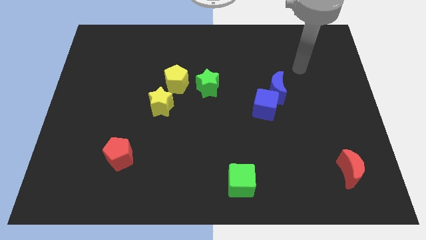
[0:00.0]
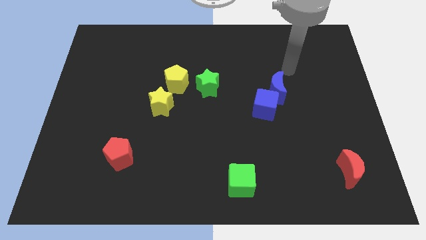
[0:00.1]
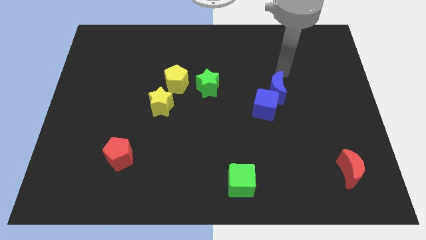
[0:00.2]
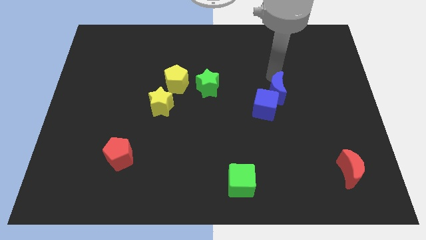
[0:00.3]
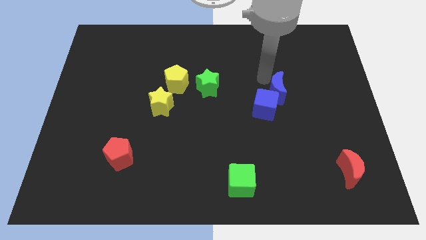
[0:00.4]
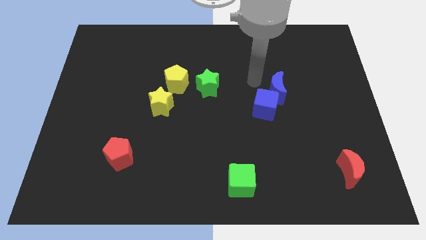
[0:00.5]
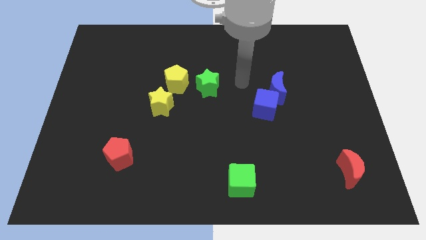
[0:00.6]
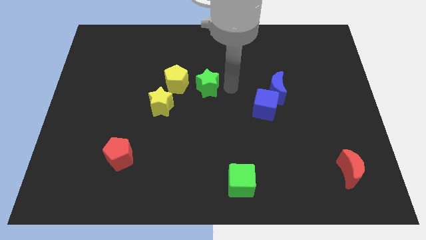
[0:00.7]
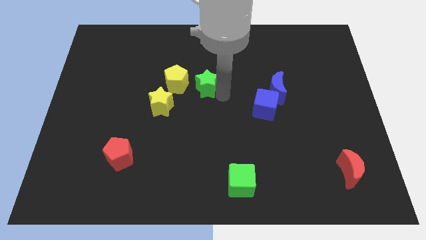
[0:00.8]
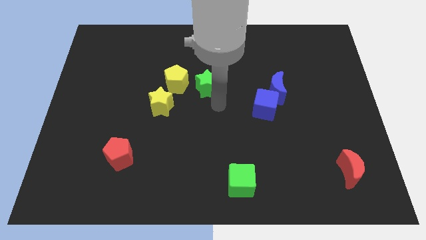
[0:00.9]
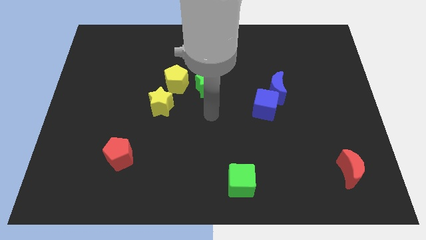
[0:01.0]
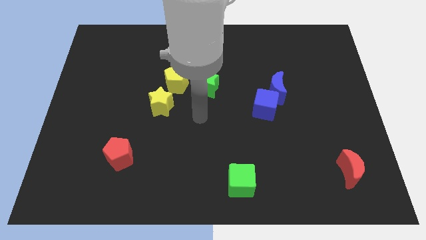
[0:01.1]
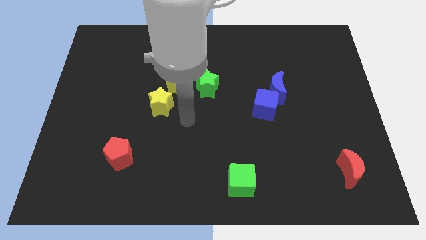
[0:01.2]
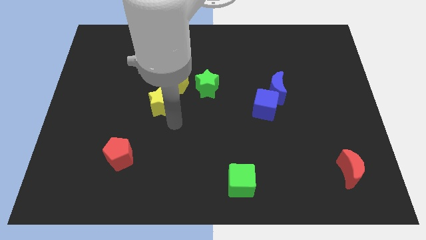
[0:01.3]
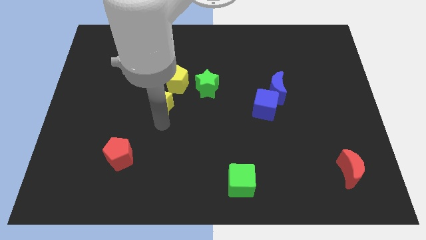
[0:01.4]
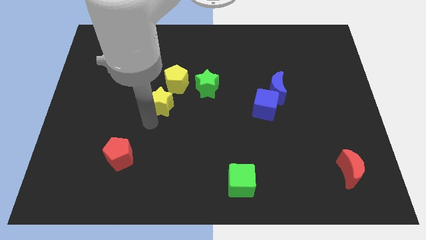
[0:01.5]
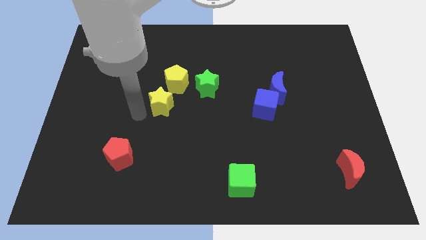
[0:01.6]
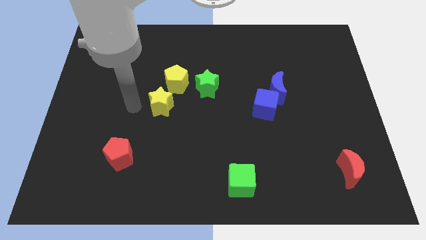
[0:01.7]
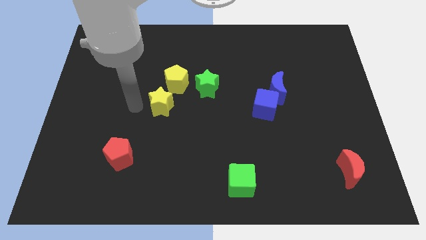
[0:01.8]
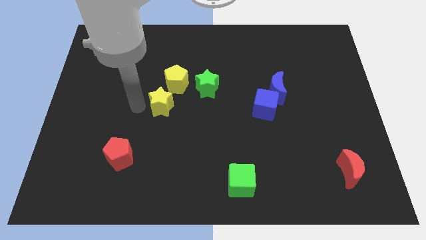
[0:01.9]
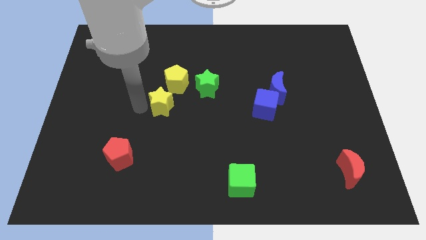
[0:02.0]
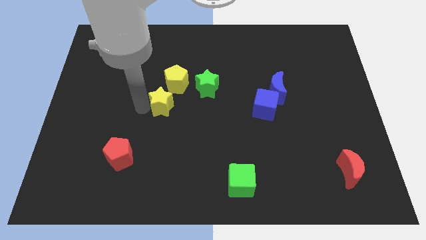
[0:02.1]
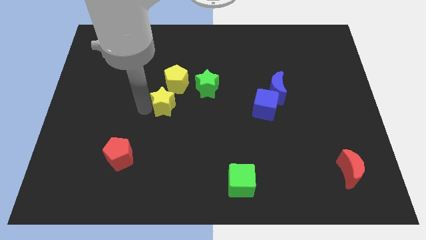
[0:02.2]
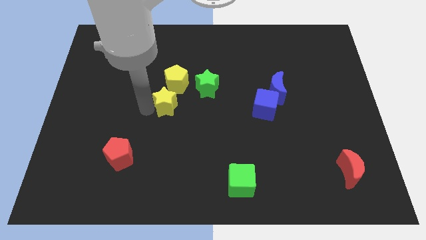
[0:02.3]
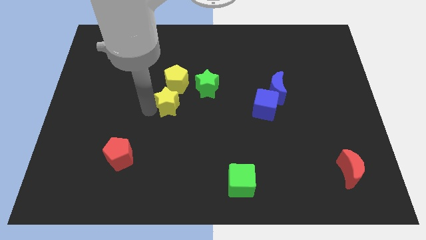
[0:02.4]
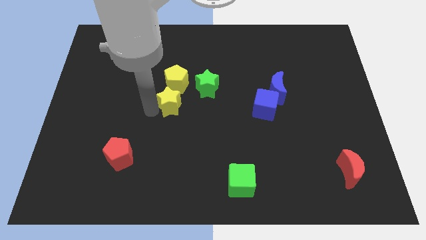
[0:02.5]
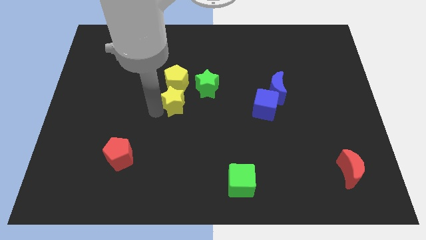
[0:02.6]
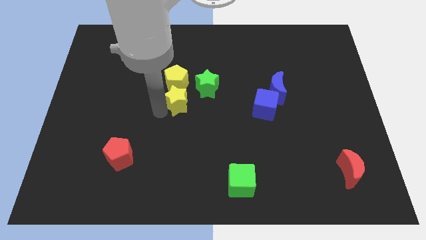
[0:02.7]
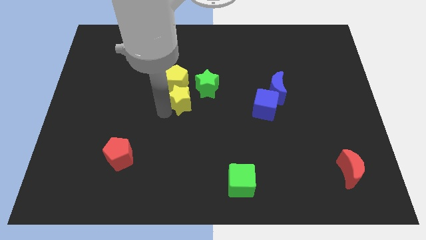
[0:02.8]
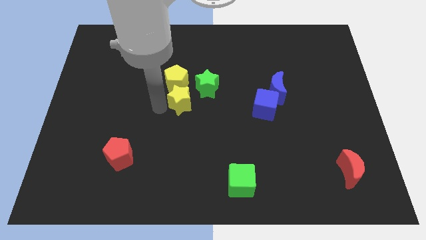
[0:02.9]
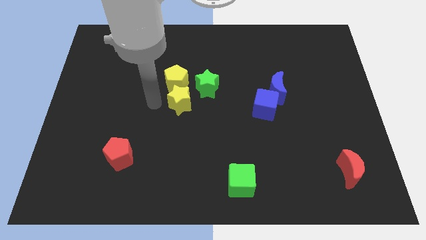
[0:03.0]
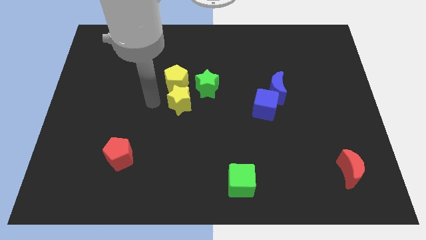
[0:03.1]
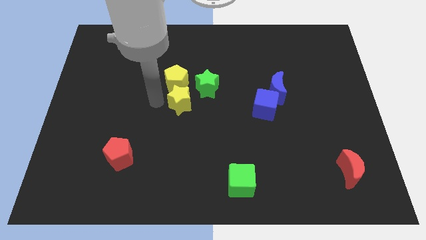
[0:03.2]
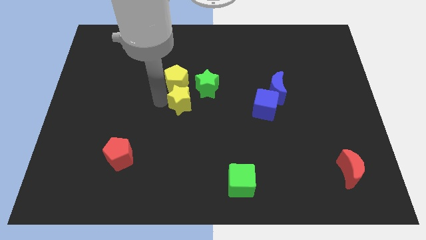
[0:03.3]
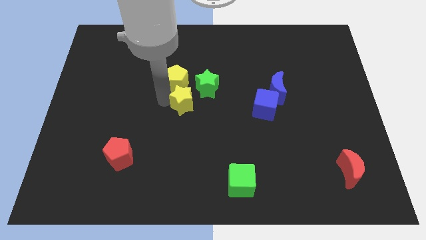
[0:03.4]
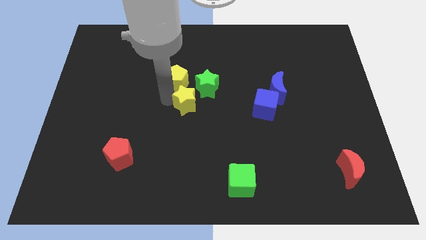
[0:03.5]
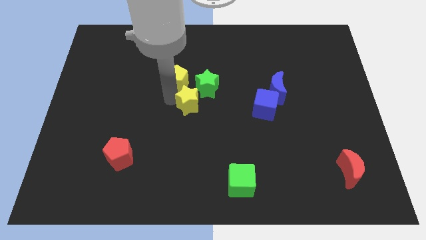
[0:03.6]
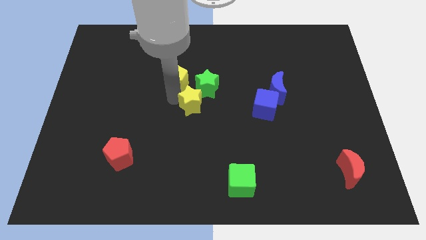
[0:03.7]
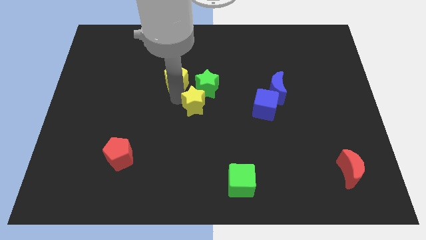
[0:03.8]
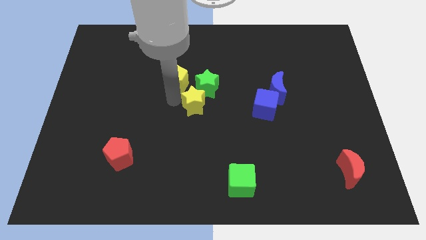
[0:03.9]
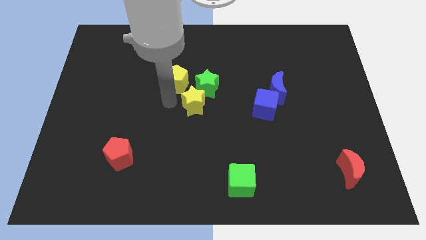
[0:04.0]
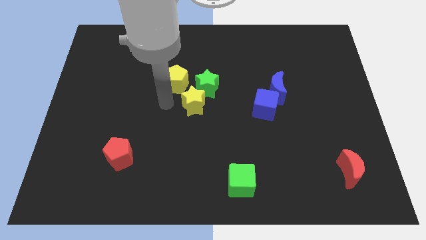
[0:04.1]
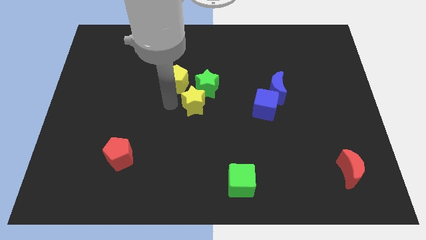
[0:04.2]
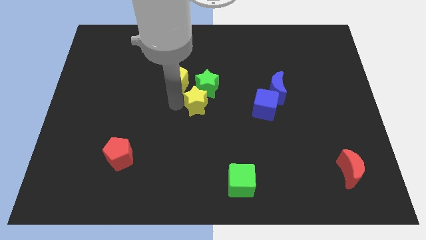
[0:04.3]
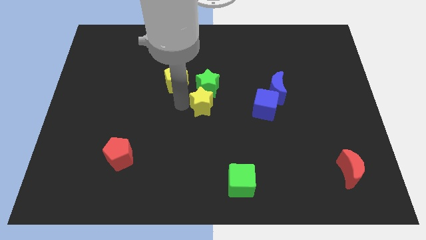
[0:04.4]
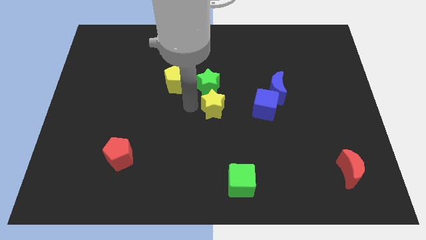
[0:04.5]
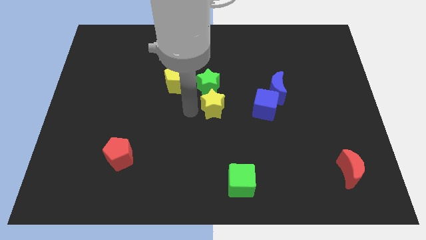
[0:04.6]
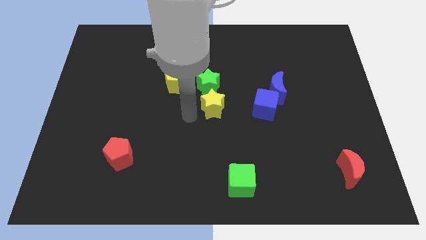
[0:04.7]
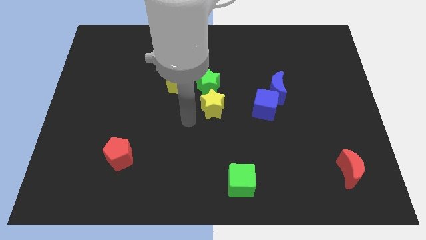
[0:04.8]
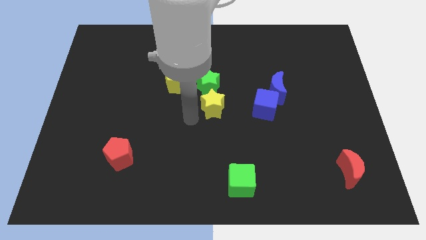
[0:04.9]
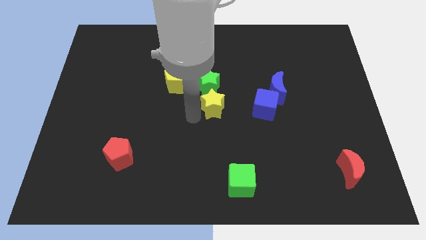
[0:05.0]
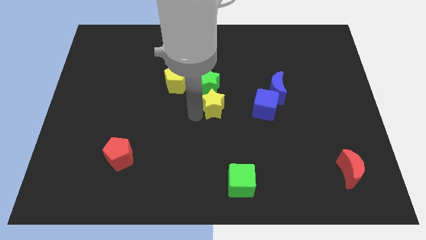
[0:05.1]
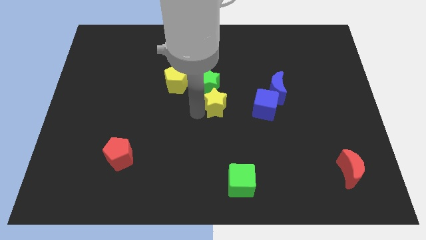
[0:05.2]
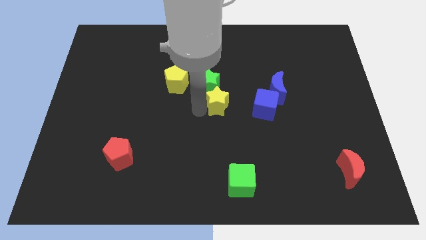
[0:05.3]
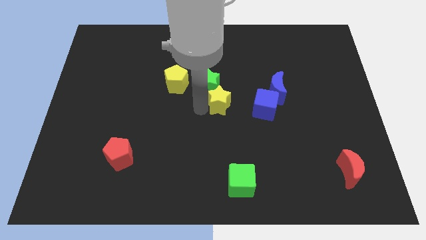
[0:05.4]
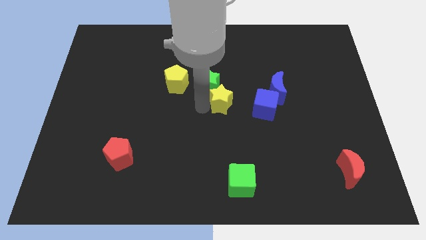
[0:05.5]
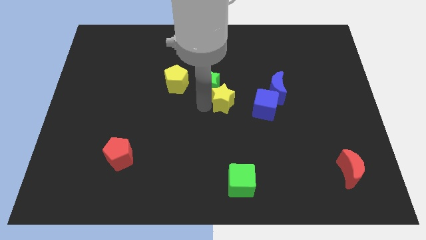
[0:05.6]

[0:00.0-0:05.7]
move the yellow star up and to the right slightly

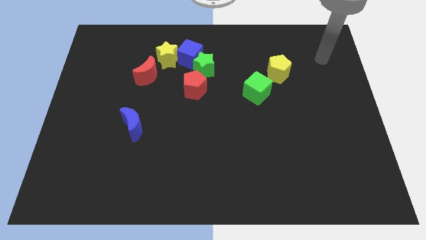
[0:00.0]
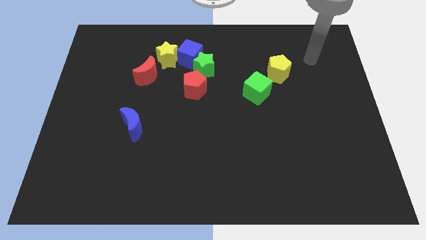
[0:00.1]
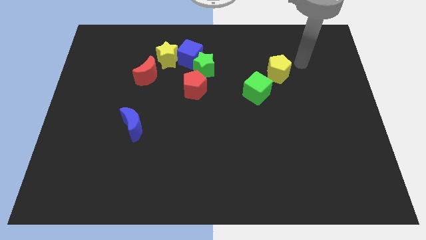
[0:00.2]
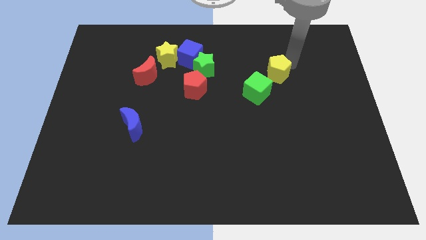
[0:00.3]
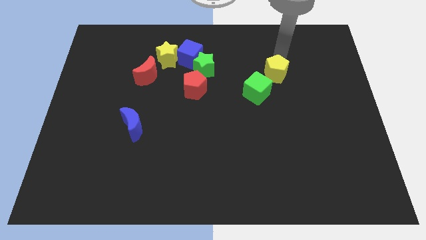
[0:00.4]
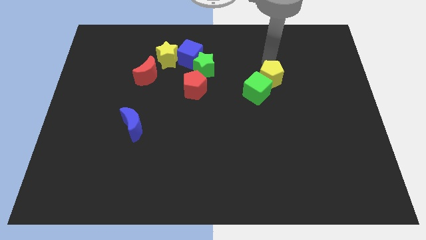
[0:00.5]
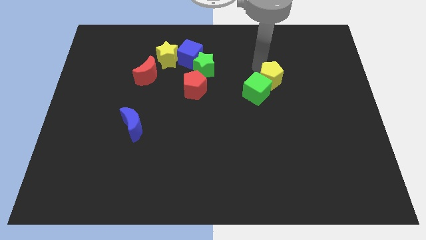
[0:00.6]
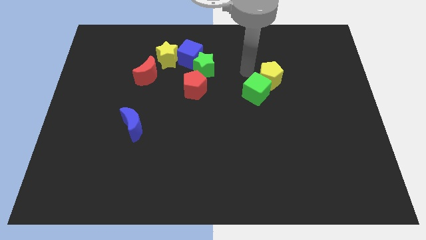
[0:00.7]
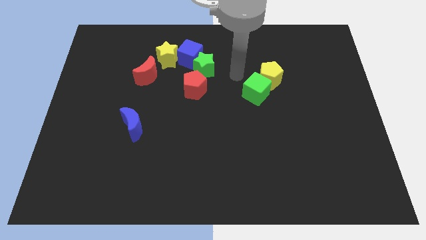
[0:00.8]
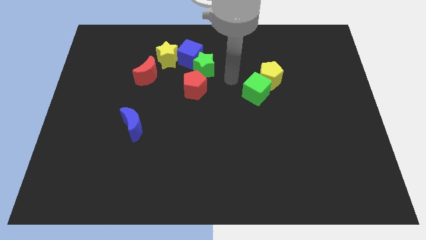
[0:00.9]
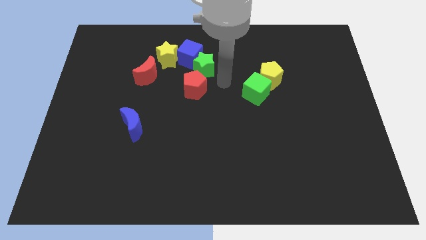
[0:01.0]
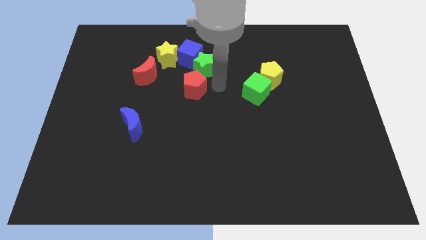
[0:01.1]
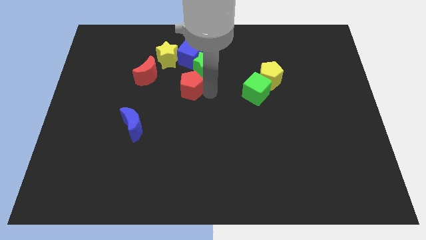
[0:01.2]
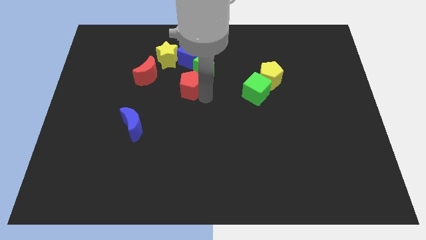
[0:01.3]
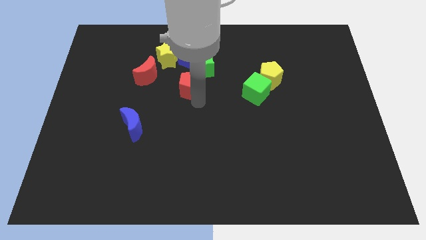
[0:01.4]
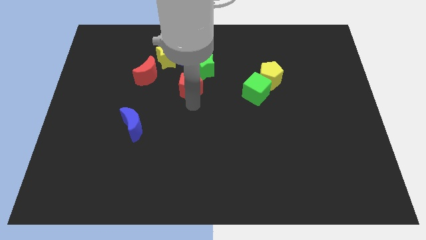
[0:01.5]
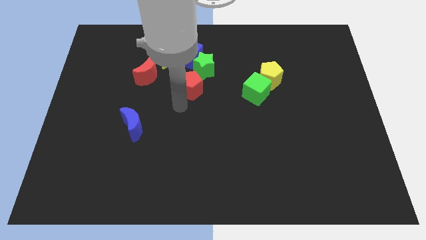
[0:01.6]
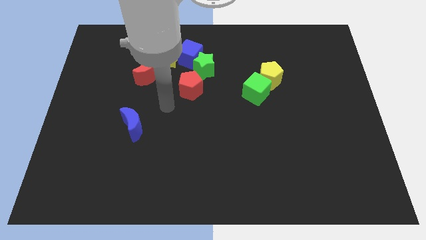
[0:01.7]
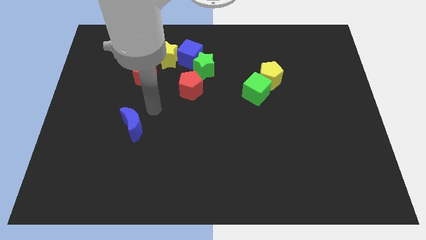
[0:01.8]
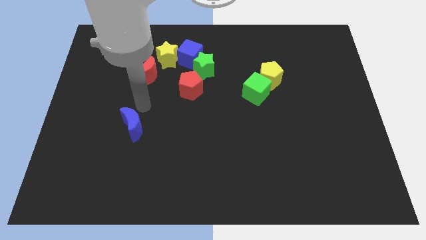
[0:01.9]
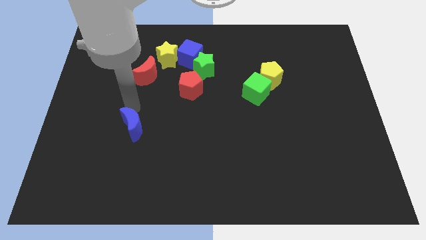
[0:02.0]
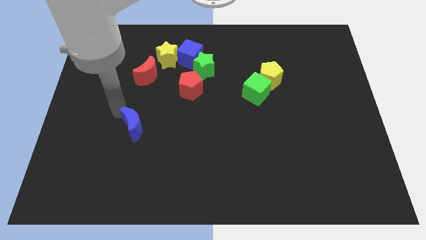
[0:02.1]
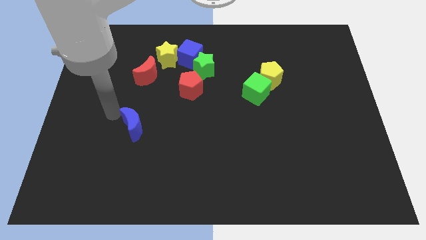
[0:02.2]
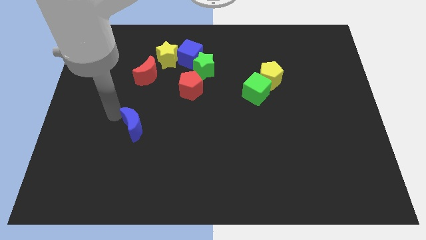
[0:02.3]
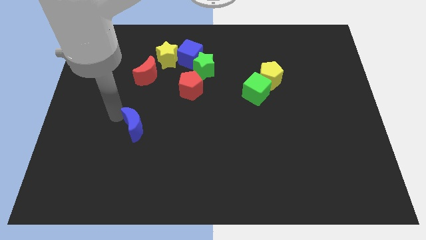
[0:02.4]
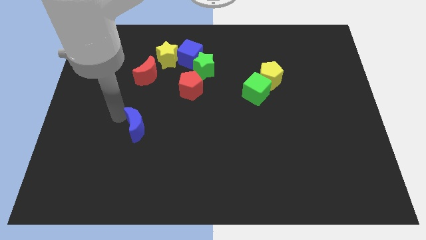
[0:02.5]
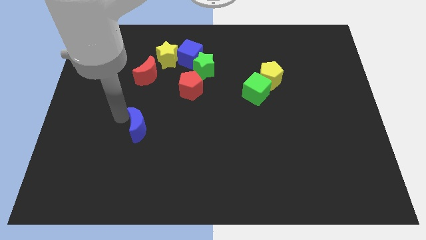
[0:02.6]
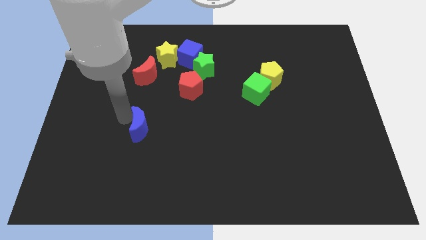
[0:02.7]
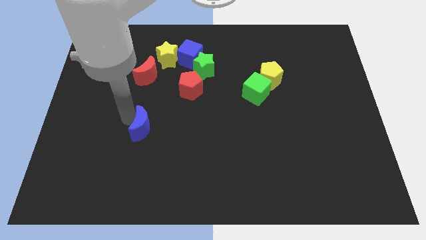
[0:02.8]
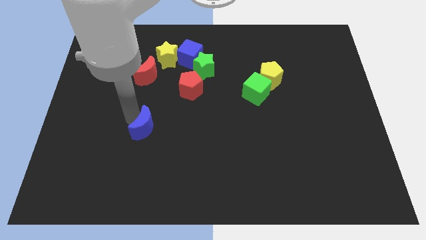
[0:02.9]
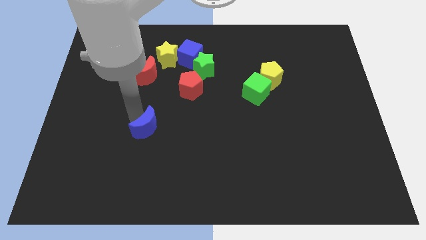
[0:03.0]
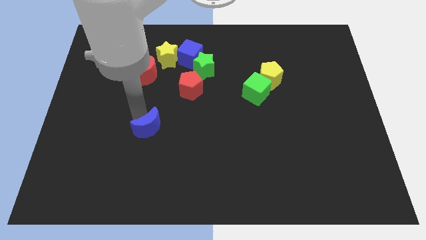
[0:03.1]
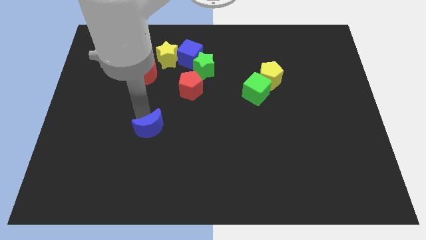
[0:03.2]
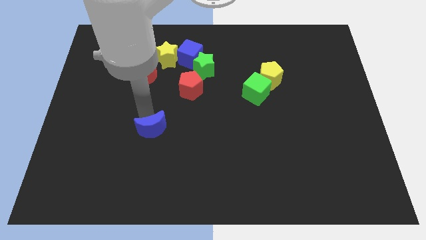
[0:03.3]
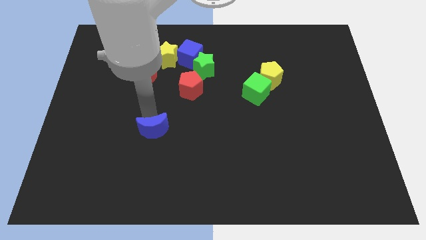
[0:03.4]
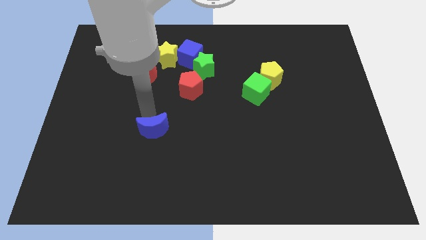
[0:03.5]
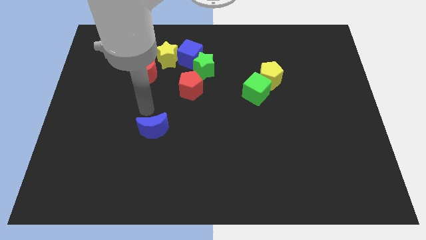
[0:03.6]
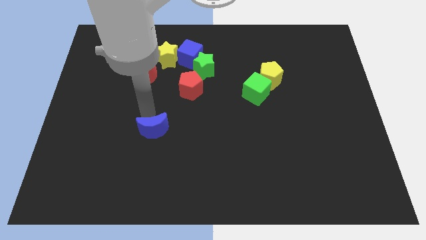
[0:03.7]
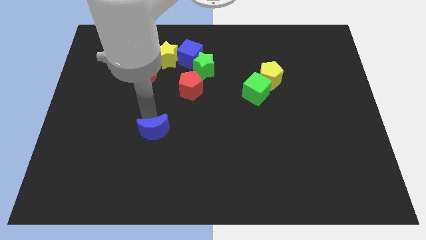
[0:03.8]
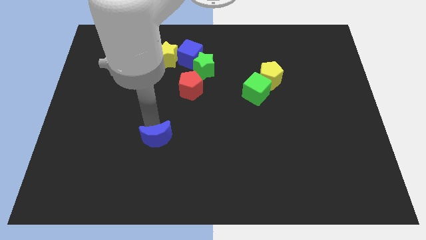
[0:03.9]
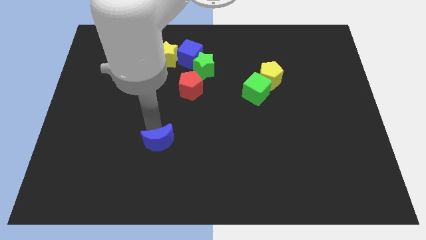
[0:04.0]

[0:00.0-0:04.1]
push the blue moon slightly down and then to the right
